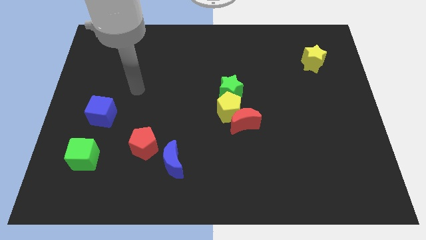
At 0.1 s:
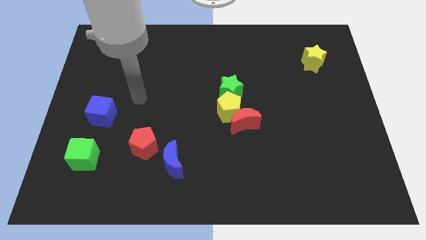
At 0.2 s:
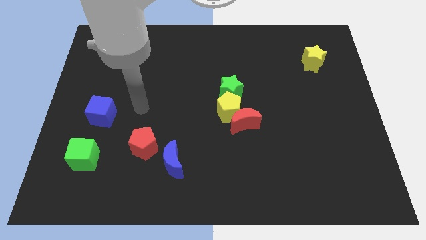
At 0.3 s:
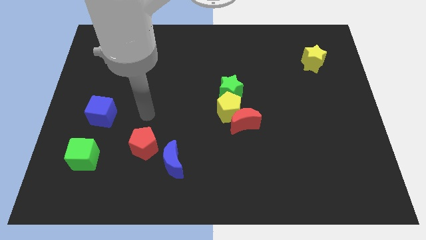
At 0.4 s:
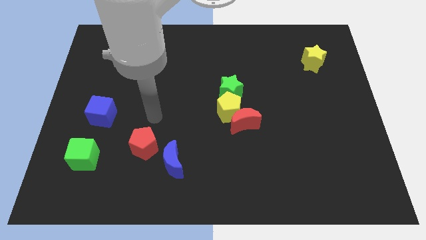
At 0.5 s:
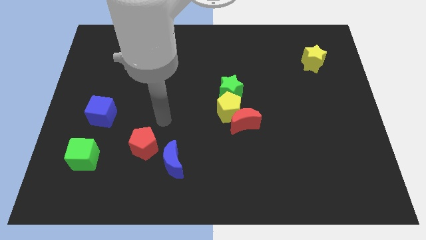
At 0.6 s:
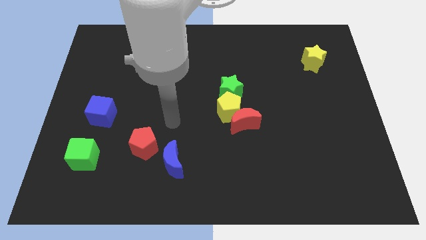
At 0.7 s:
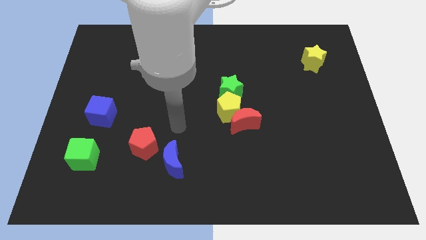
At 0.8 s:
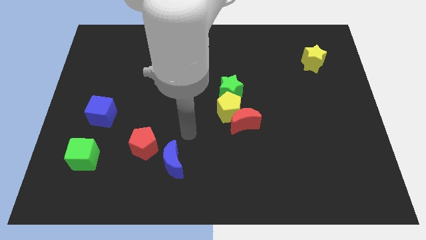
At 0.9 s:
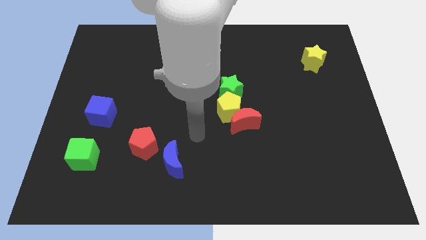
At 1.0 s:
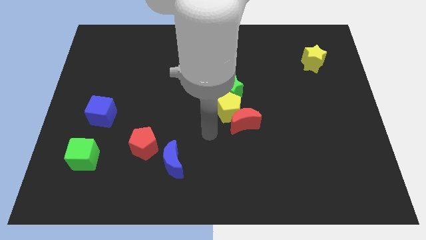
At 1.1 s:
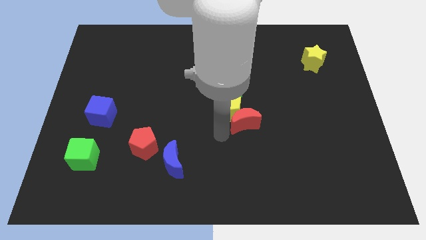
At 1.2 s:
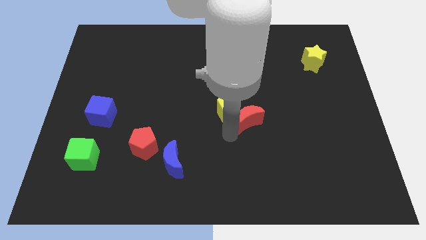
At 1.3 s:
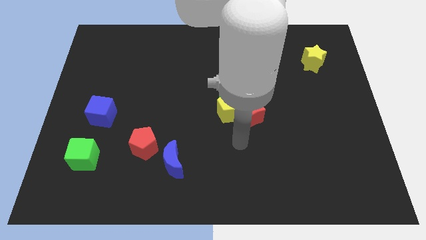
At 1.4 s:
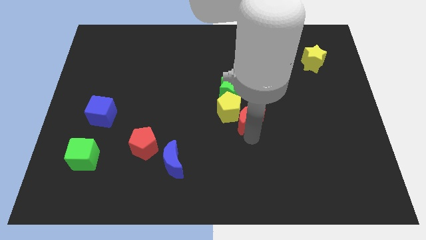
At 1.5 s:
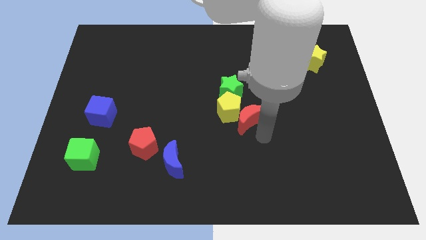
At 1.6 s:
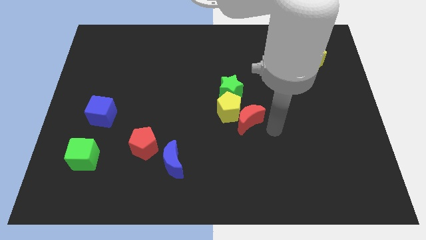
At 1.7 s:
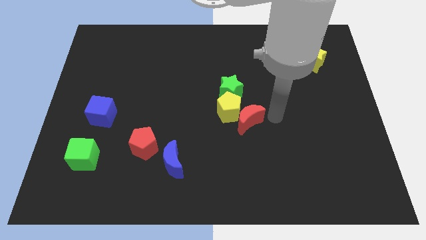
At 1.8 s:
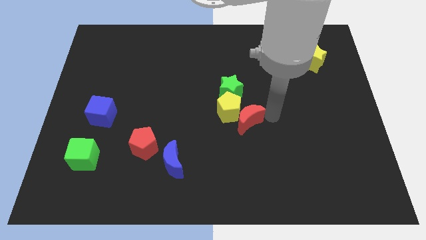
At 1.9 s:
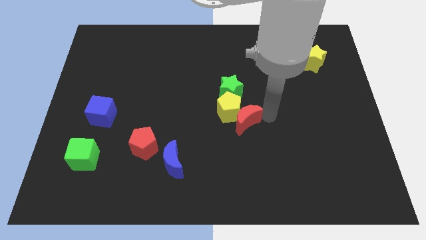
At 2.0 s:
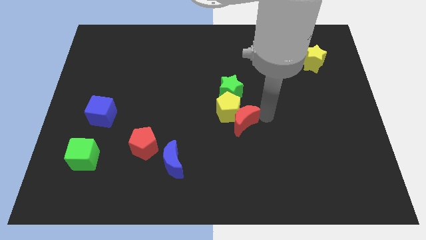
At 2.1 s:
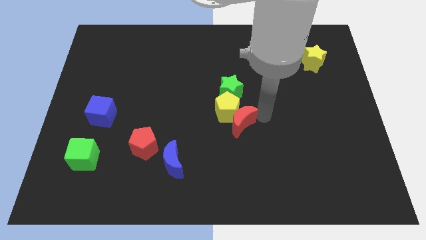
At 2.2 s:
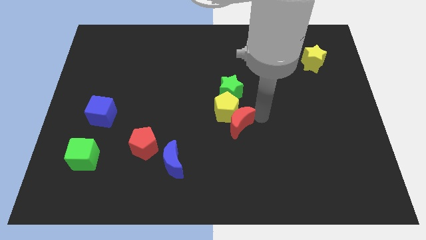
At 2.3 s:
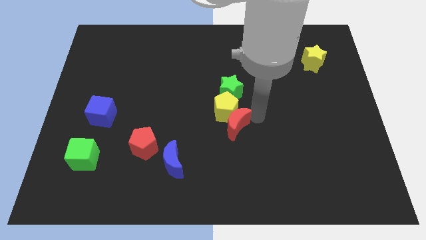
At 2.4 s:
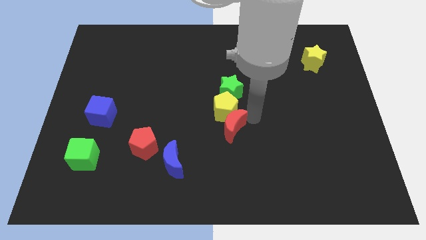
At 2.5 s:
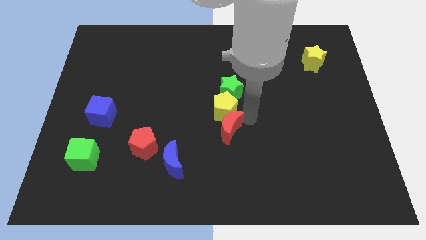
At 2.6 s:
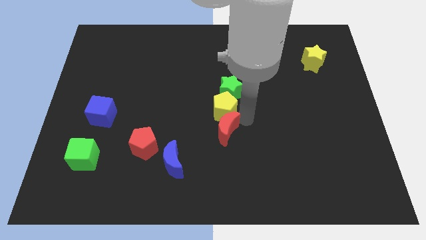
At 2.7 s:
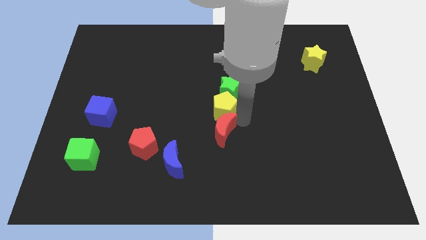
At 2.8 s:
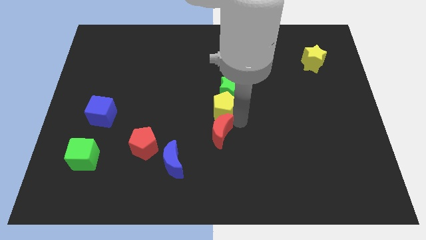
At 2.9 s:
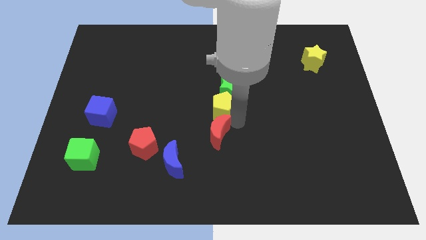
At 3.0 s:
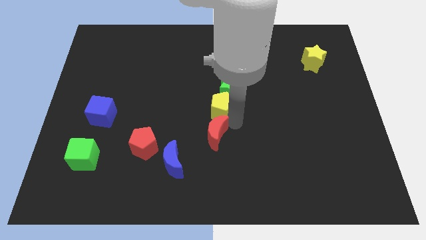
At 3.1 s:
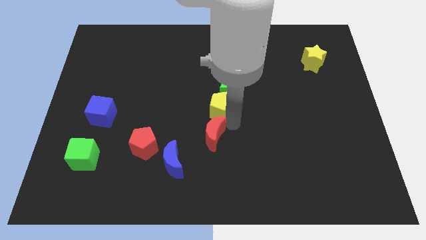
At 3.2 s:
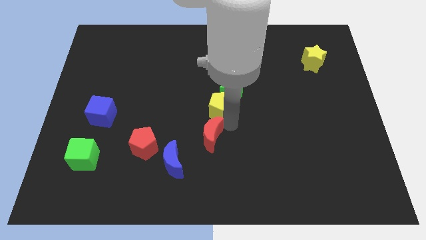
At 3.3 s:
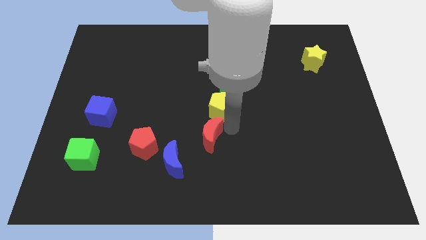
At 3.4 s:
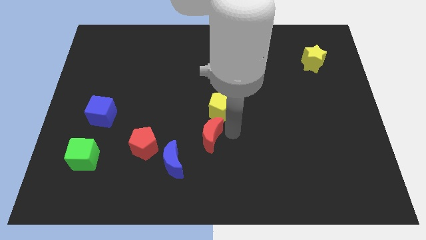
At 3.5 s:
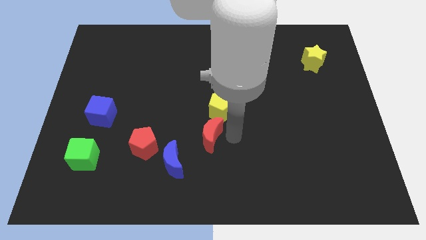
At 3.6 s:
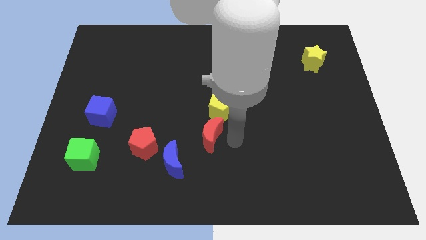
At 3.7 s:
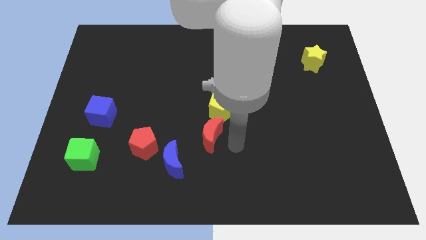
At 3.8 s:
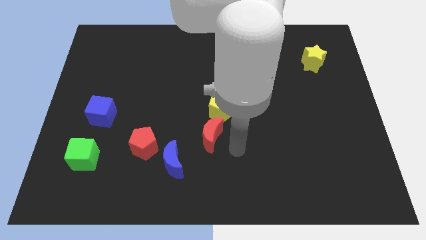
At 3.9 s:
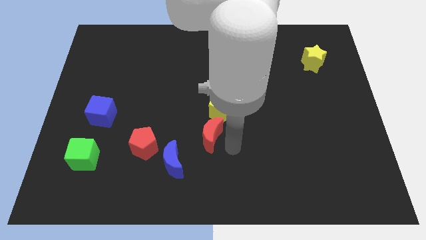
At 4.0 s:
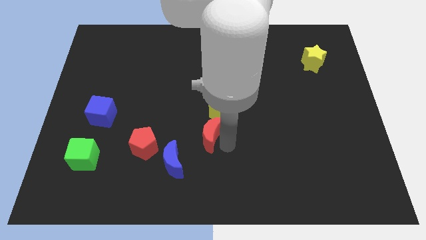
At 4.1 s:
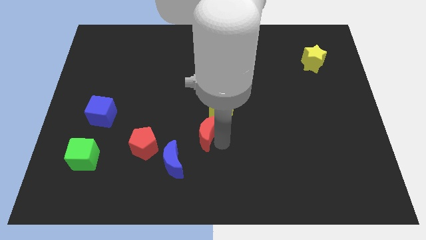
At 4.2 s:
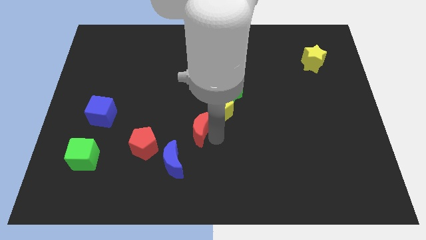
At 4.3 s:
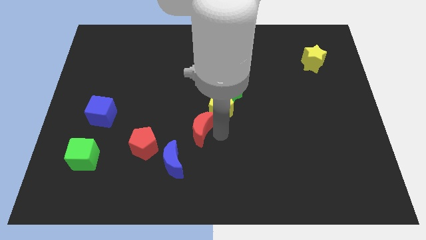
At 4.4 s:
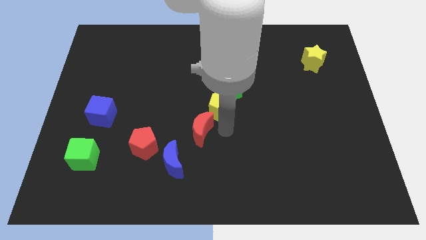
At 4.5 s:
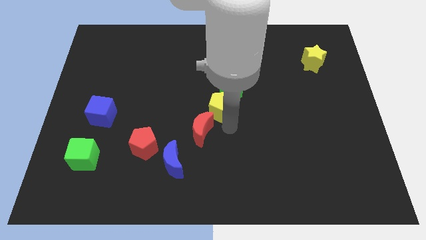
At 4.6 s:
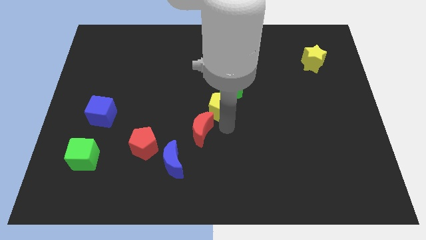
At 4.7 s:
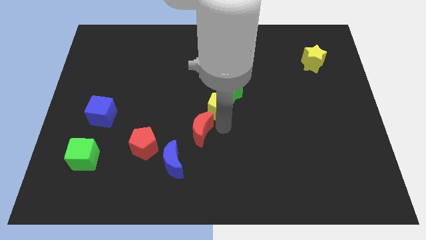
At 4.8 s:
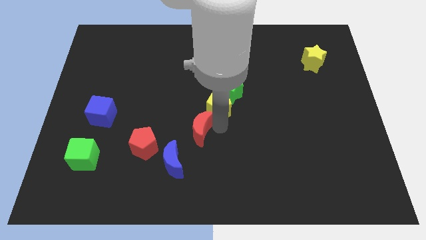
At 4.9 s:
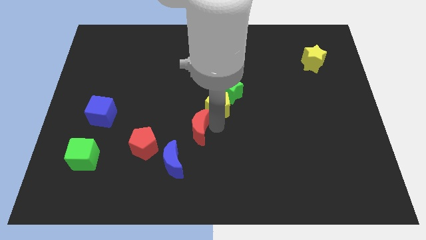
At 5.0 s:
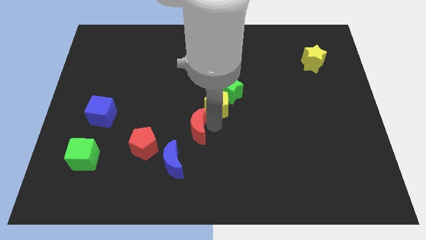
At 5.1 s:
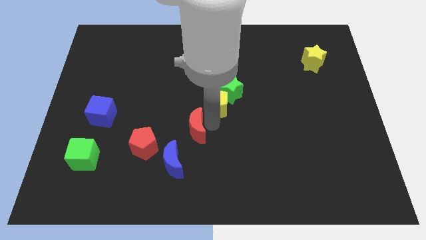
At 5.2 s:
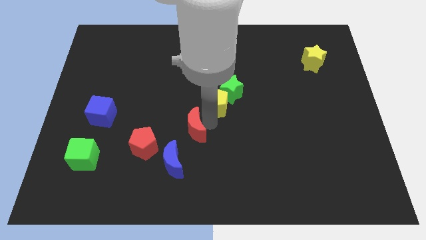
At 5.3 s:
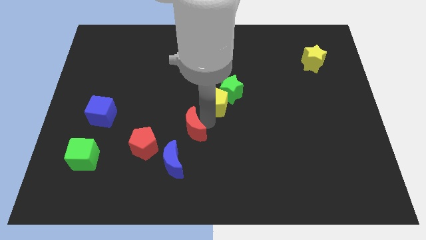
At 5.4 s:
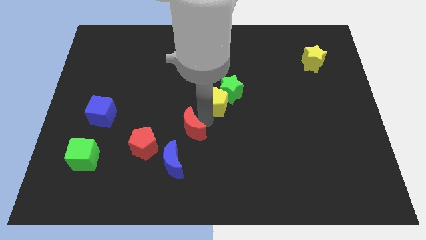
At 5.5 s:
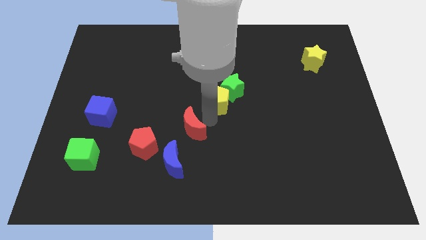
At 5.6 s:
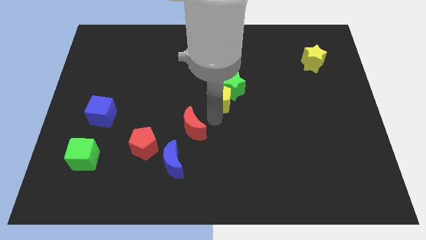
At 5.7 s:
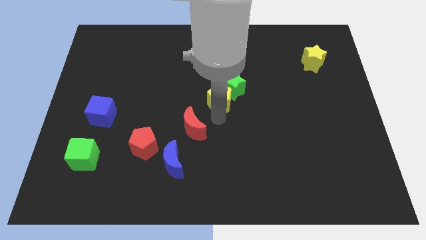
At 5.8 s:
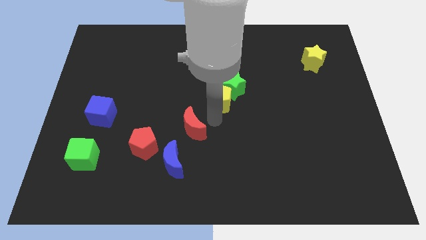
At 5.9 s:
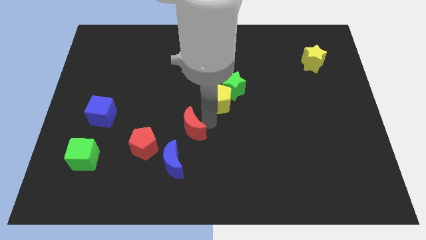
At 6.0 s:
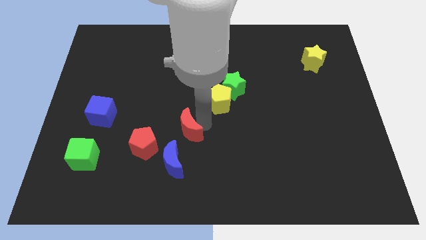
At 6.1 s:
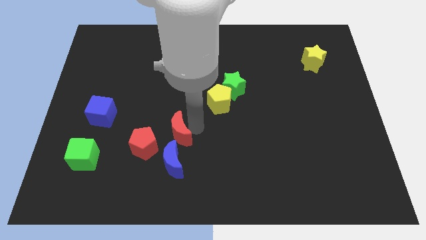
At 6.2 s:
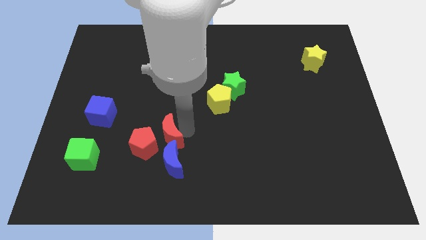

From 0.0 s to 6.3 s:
push the red moon close to the red pentagon
